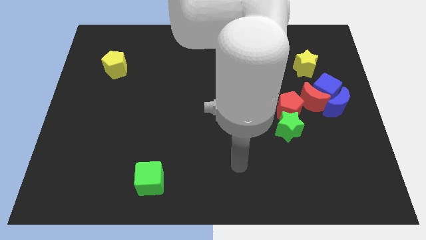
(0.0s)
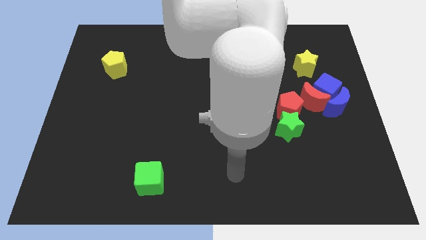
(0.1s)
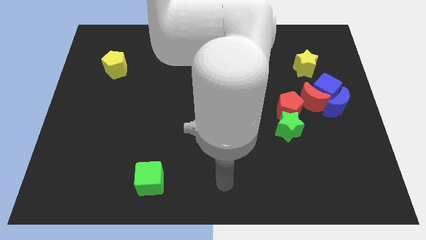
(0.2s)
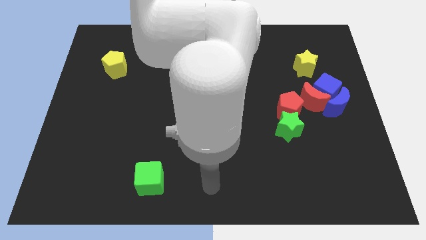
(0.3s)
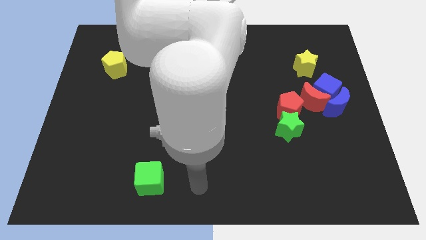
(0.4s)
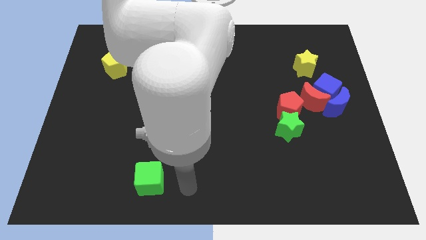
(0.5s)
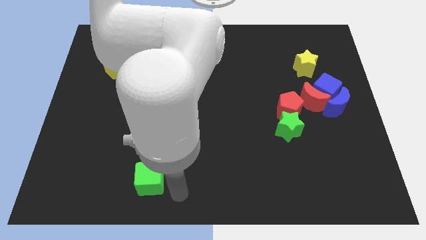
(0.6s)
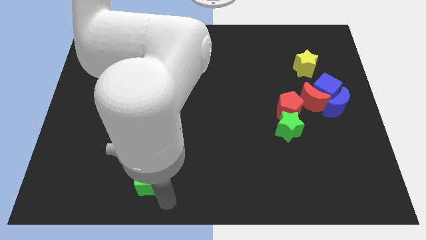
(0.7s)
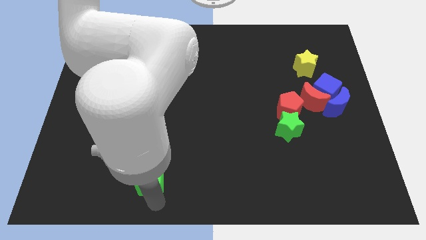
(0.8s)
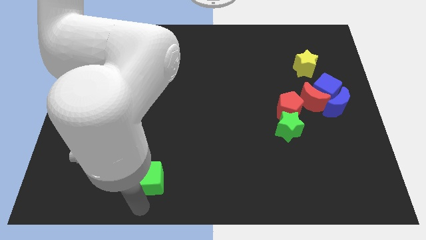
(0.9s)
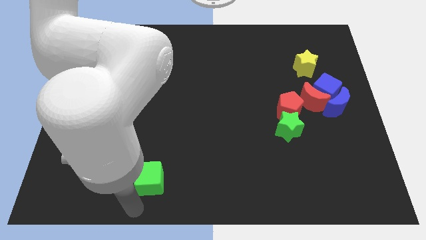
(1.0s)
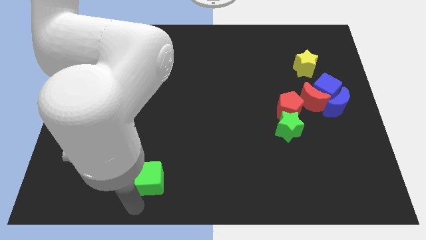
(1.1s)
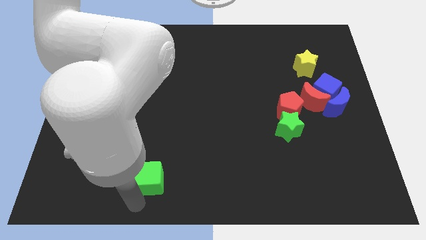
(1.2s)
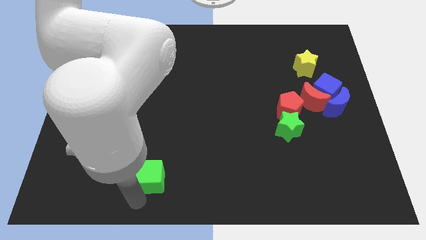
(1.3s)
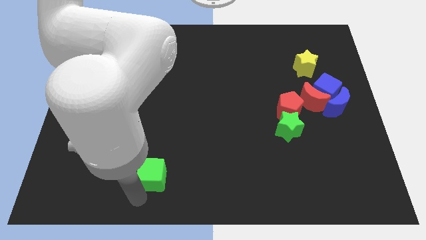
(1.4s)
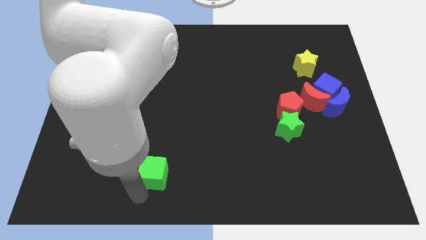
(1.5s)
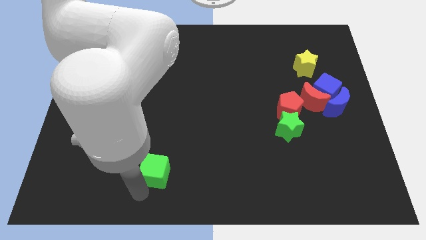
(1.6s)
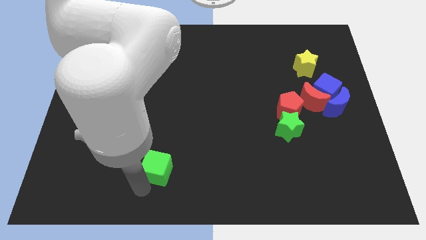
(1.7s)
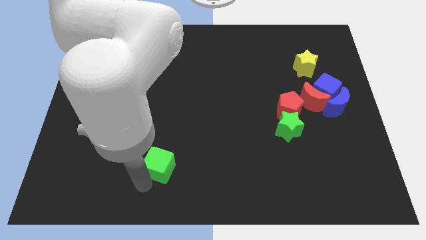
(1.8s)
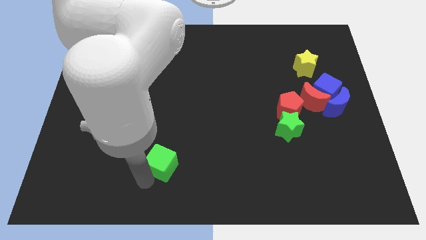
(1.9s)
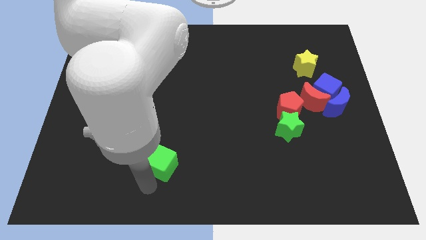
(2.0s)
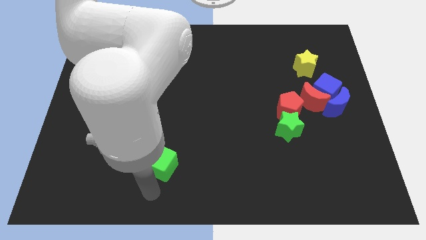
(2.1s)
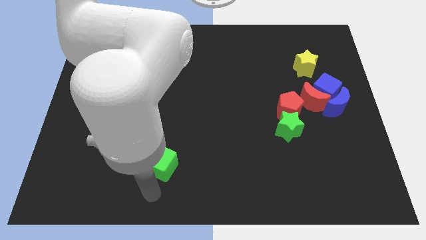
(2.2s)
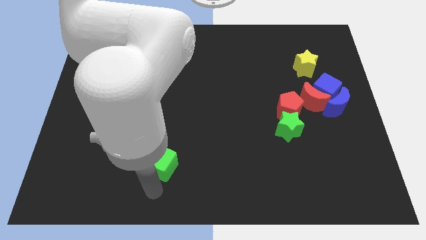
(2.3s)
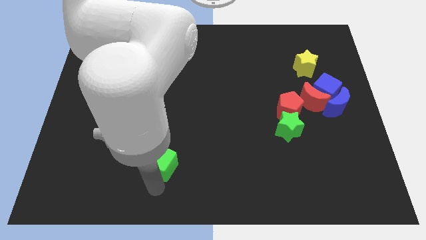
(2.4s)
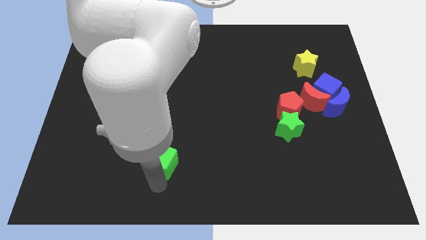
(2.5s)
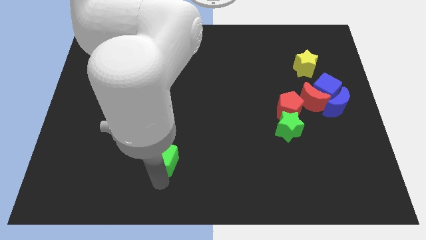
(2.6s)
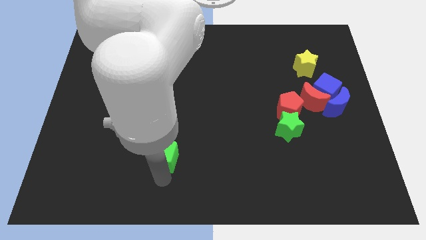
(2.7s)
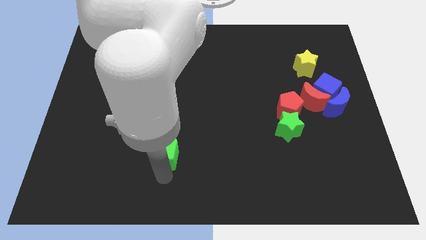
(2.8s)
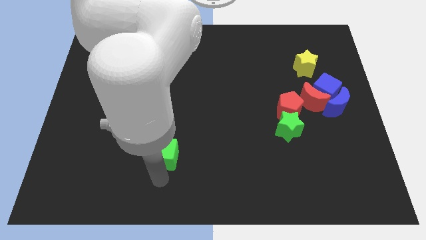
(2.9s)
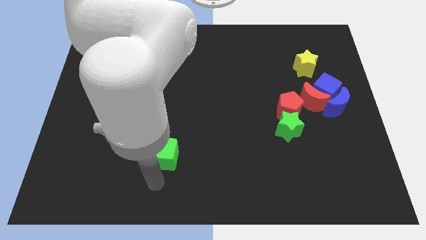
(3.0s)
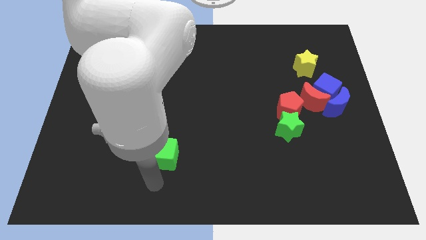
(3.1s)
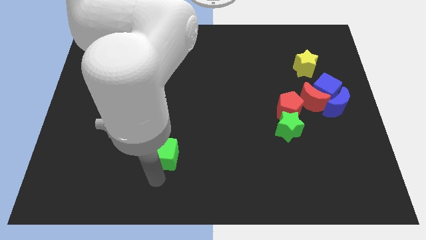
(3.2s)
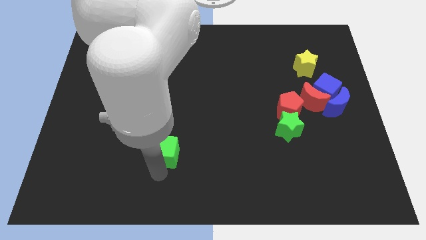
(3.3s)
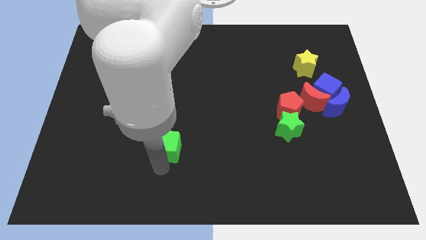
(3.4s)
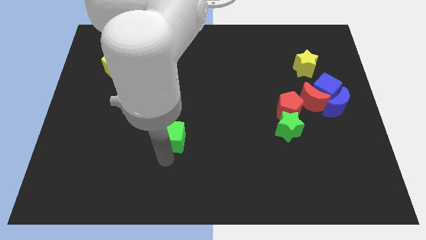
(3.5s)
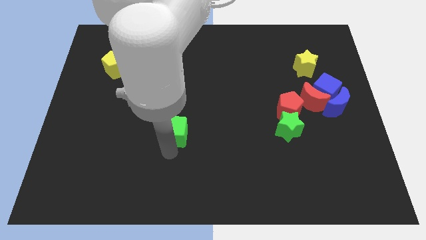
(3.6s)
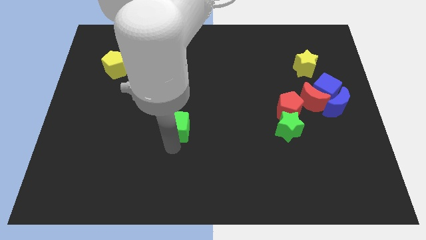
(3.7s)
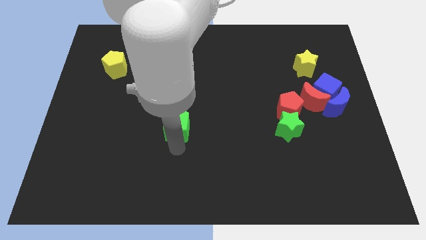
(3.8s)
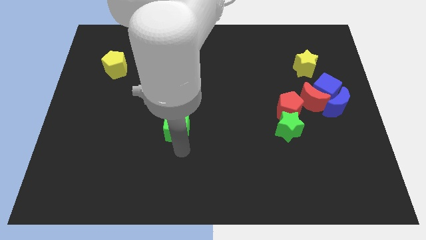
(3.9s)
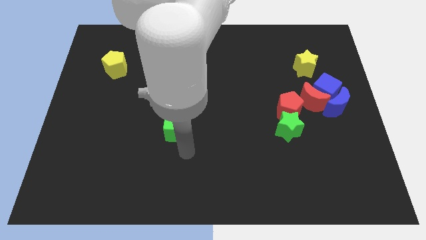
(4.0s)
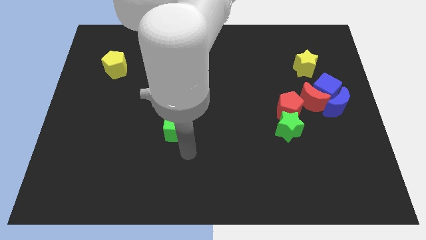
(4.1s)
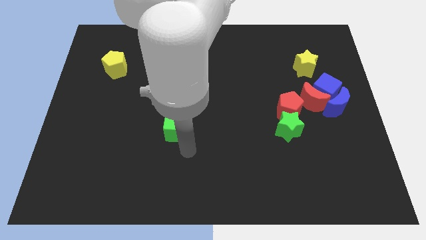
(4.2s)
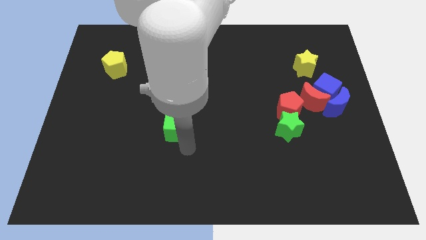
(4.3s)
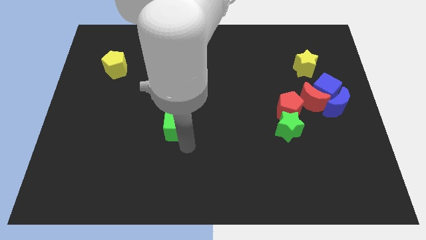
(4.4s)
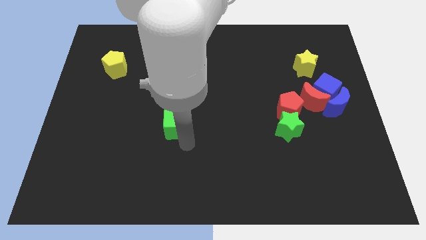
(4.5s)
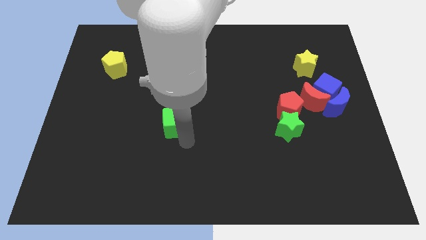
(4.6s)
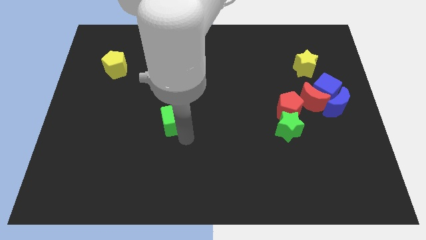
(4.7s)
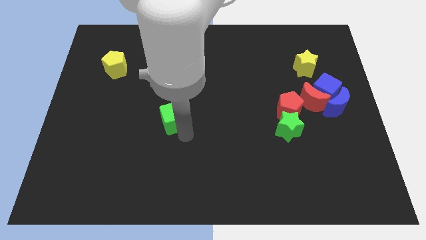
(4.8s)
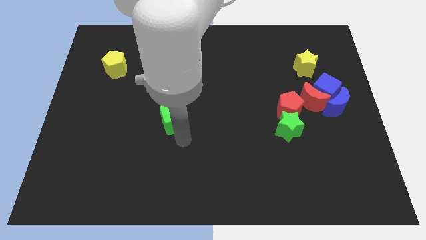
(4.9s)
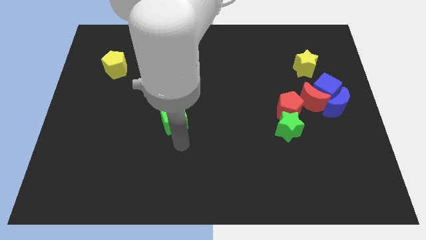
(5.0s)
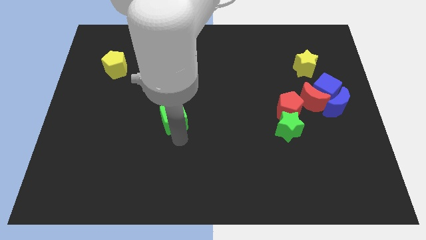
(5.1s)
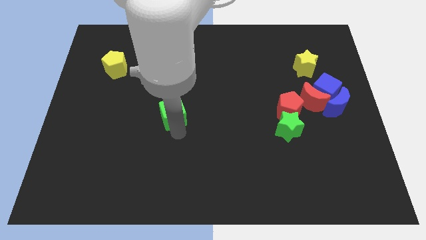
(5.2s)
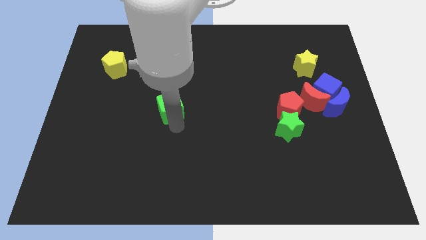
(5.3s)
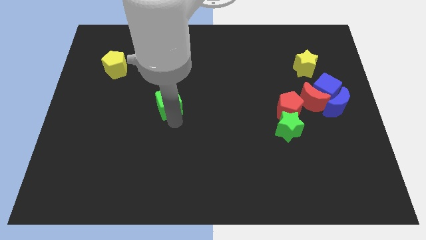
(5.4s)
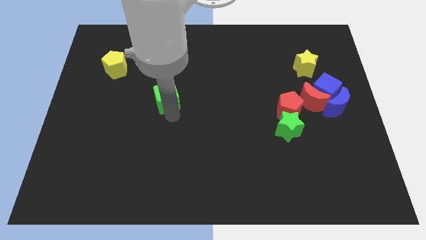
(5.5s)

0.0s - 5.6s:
slide the green cube upwards

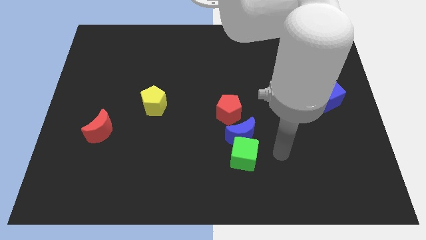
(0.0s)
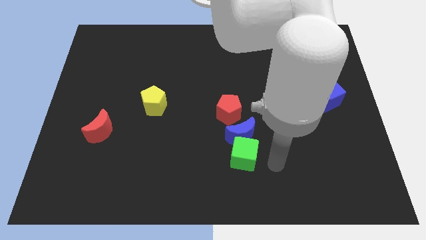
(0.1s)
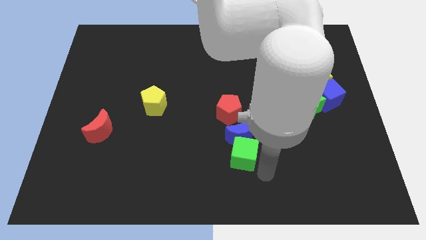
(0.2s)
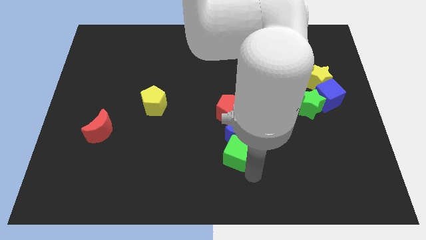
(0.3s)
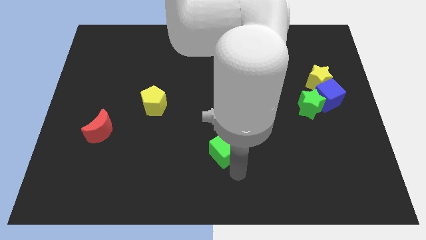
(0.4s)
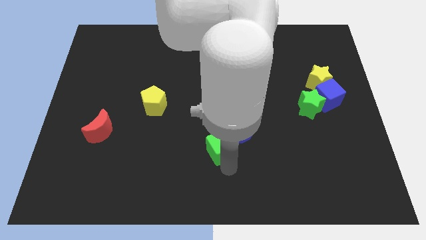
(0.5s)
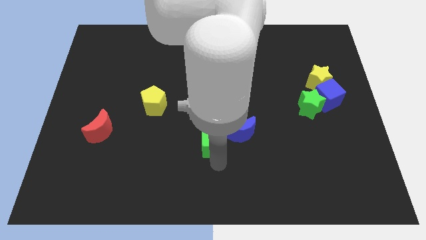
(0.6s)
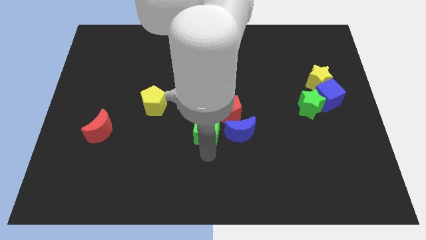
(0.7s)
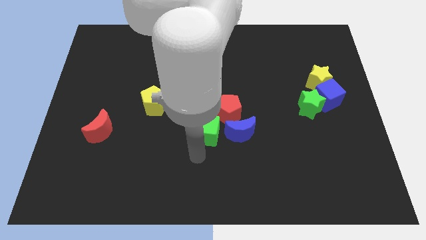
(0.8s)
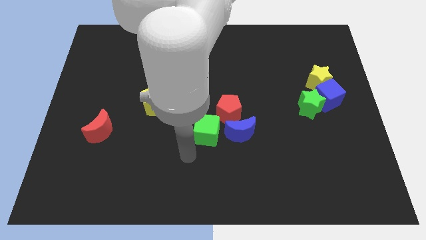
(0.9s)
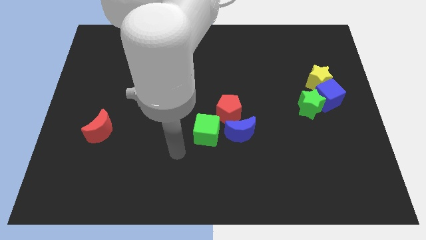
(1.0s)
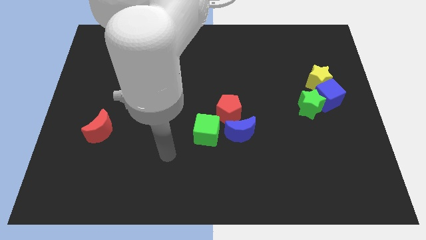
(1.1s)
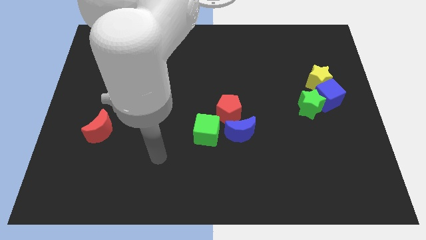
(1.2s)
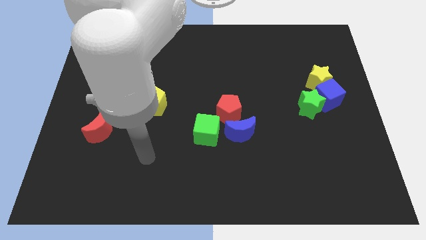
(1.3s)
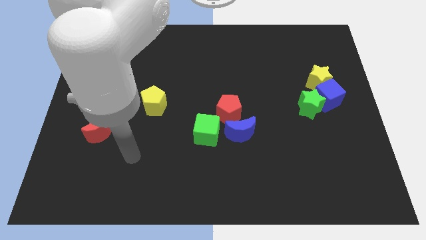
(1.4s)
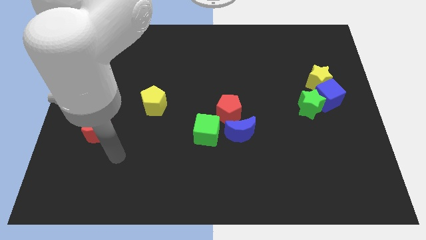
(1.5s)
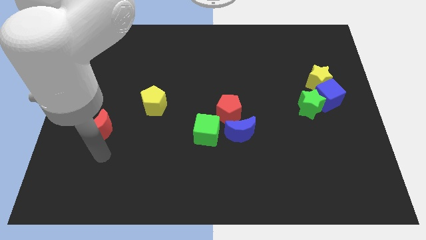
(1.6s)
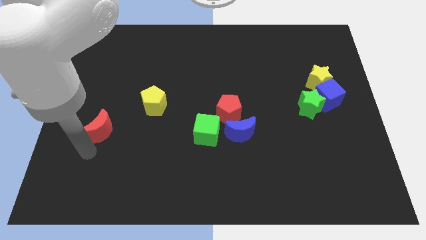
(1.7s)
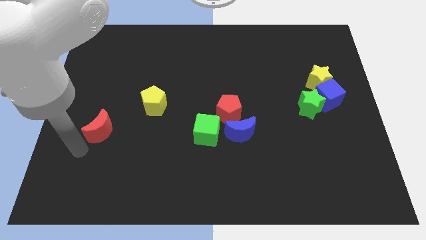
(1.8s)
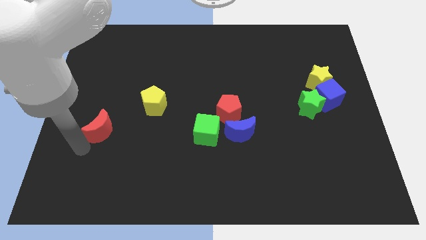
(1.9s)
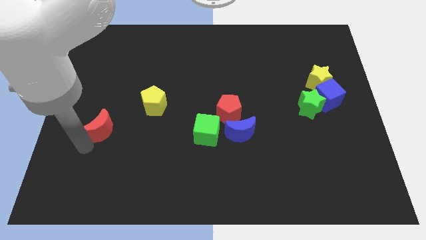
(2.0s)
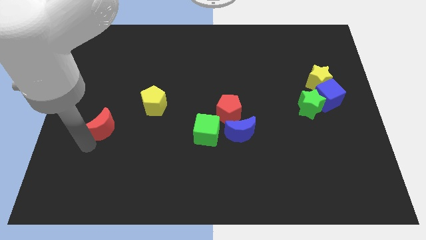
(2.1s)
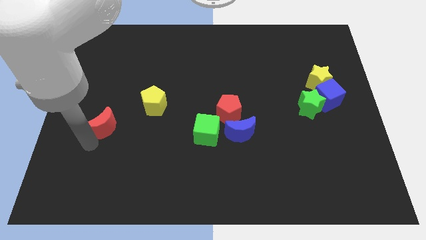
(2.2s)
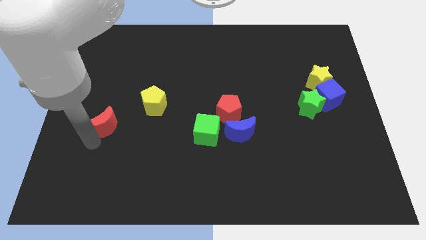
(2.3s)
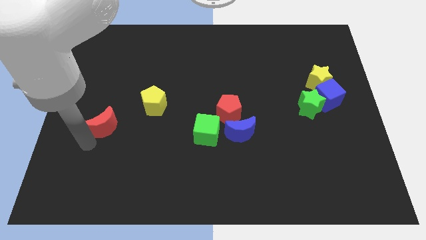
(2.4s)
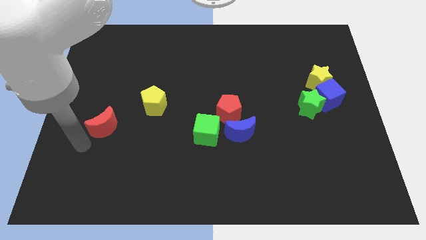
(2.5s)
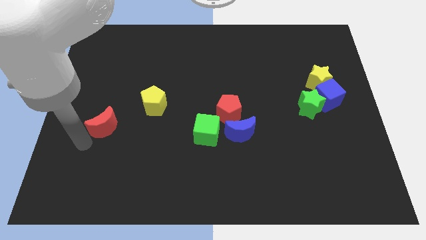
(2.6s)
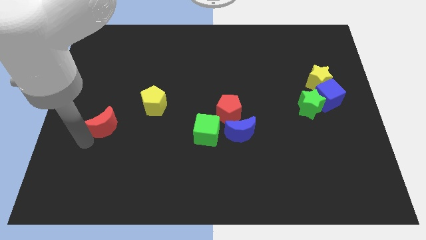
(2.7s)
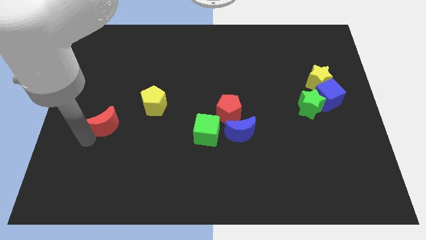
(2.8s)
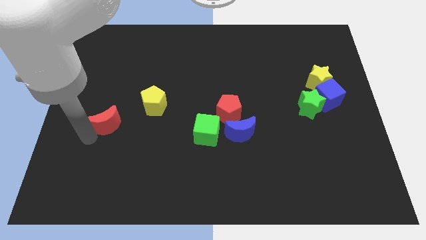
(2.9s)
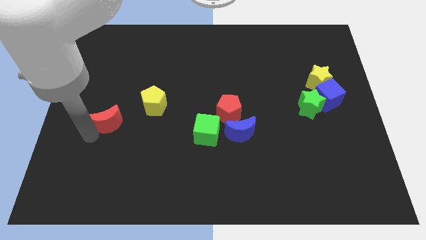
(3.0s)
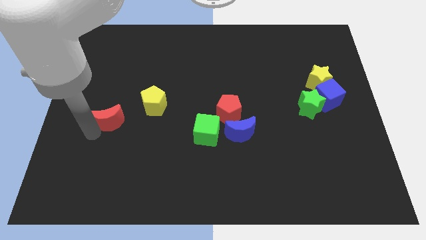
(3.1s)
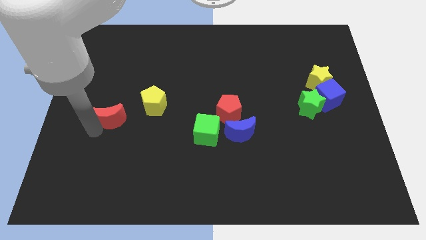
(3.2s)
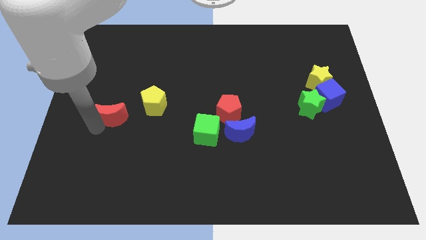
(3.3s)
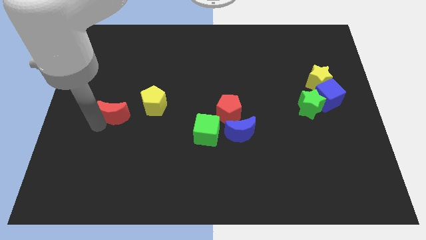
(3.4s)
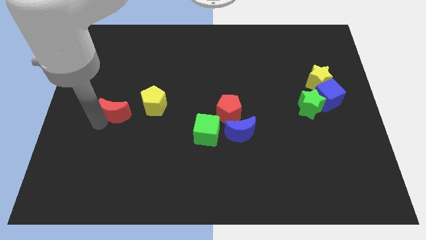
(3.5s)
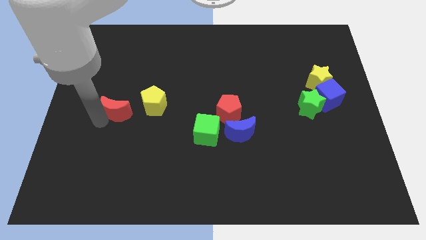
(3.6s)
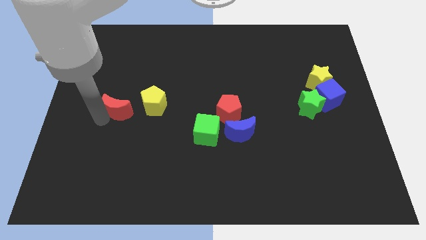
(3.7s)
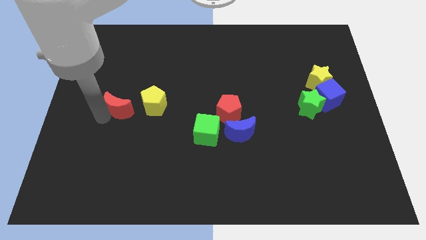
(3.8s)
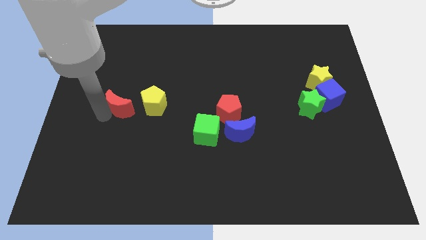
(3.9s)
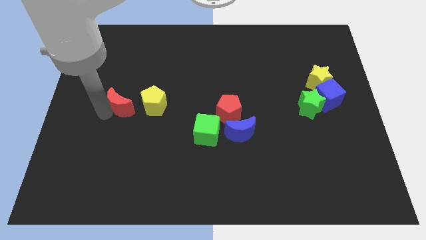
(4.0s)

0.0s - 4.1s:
push the red moon a bit upwards and then right
